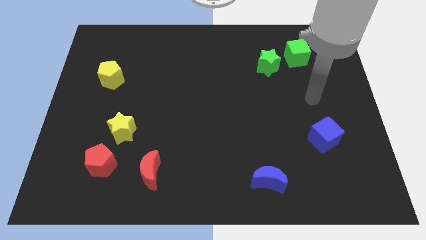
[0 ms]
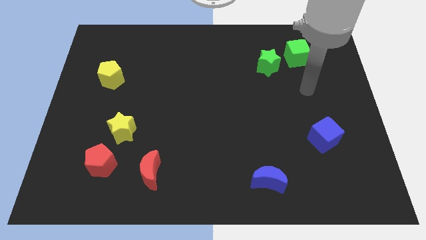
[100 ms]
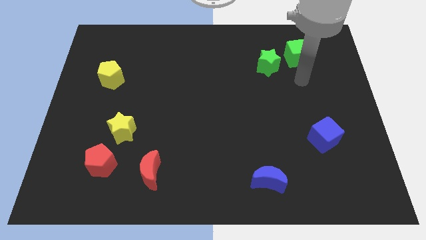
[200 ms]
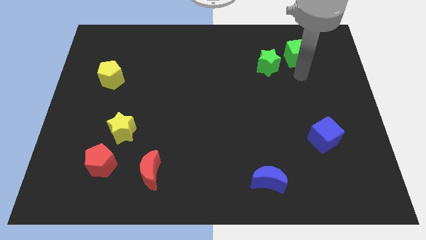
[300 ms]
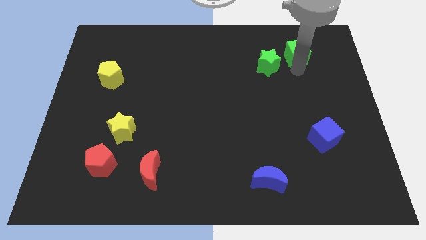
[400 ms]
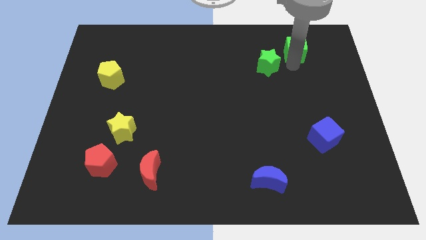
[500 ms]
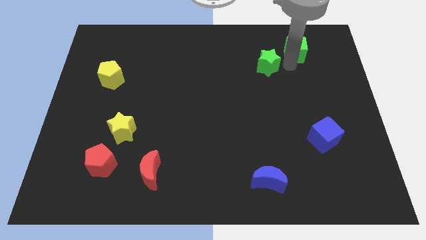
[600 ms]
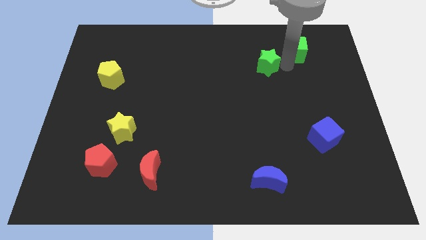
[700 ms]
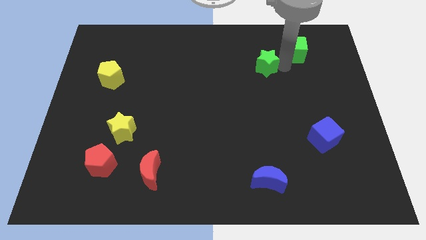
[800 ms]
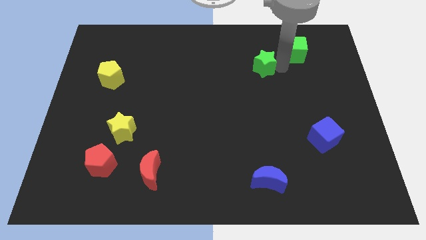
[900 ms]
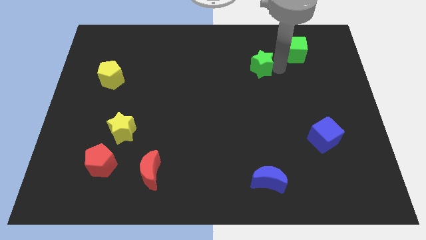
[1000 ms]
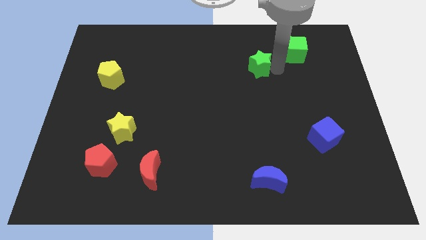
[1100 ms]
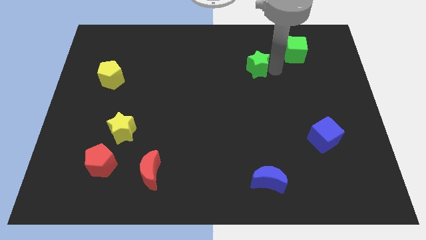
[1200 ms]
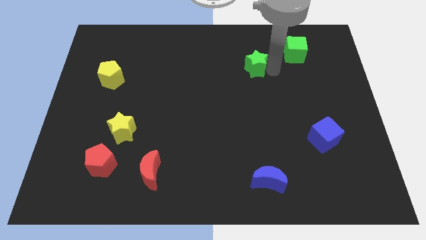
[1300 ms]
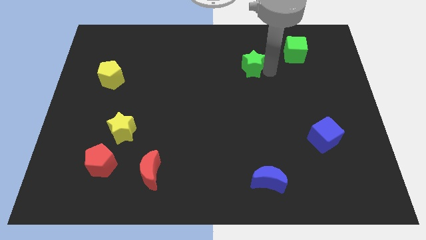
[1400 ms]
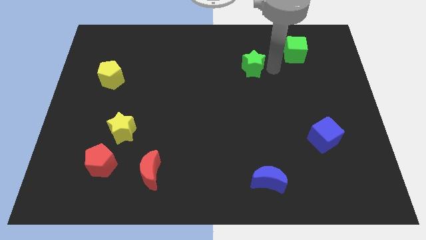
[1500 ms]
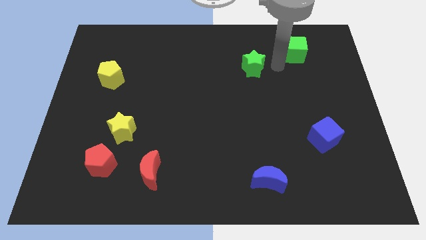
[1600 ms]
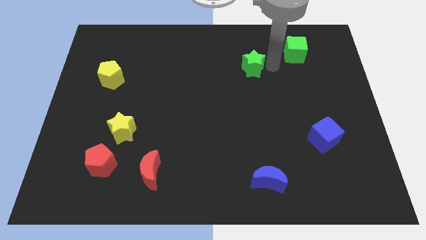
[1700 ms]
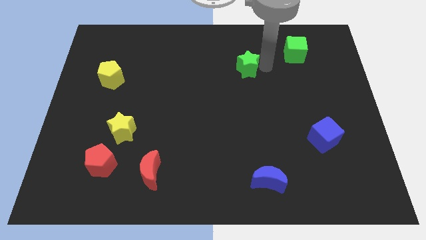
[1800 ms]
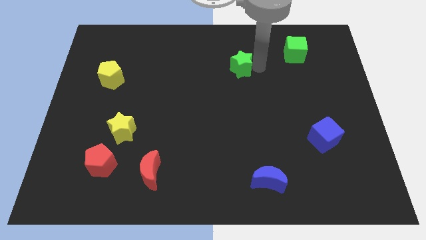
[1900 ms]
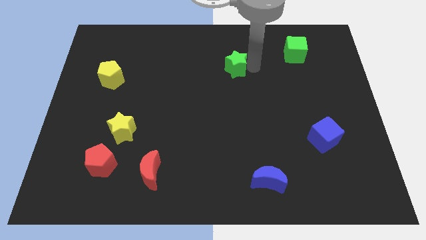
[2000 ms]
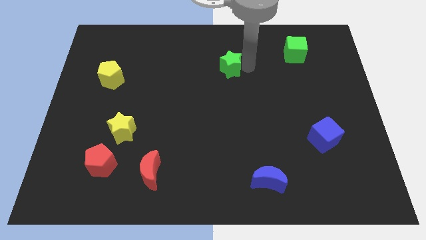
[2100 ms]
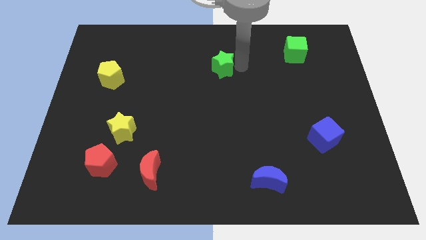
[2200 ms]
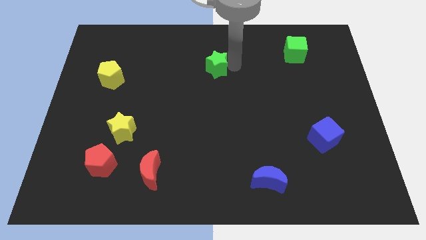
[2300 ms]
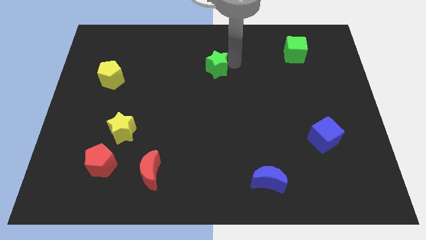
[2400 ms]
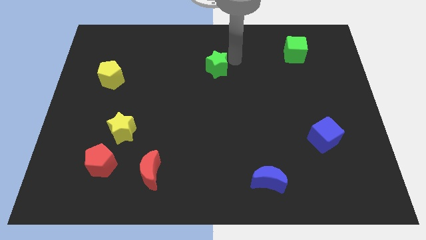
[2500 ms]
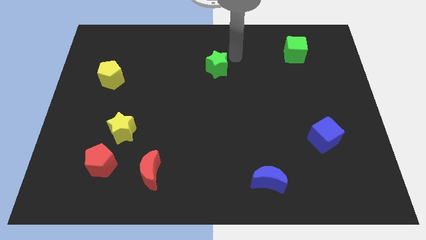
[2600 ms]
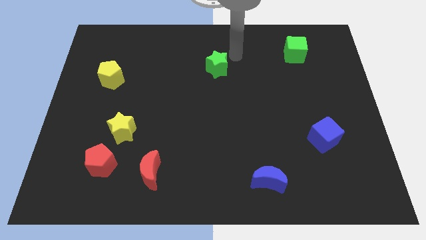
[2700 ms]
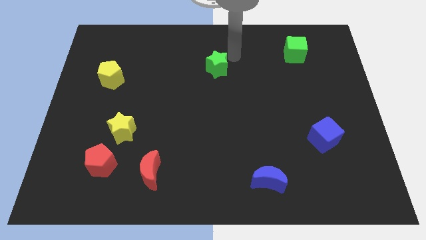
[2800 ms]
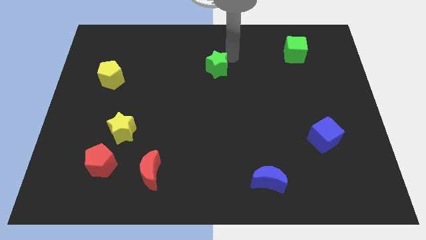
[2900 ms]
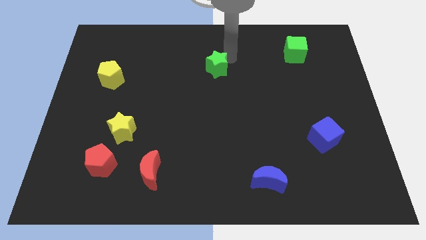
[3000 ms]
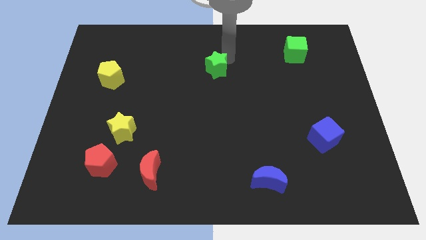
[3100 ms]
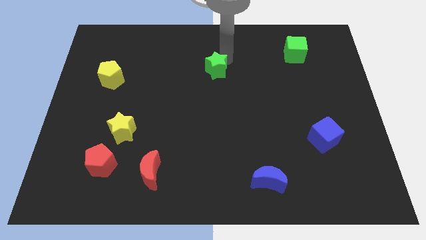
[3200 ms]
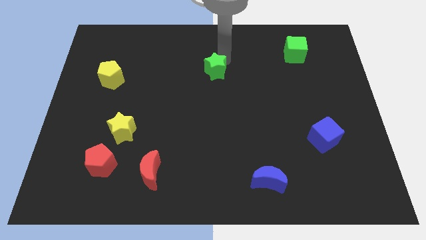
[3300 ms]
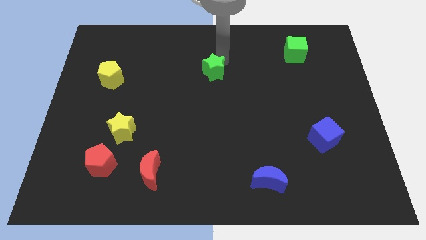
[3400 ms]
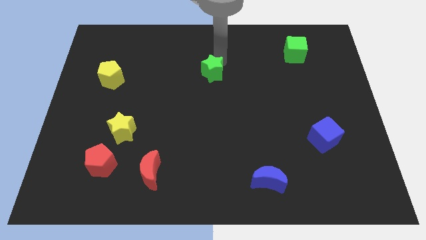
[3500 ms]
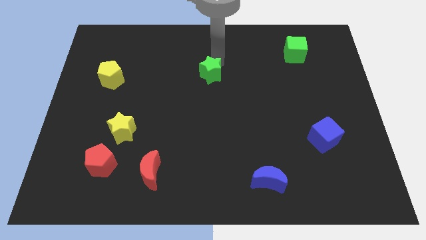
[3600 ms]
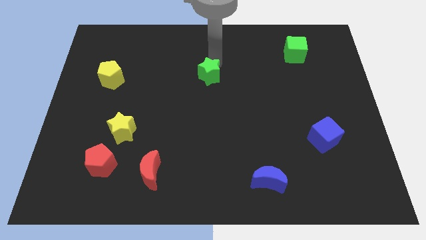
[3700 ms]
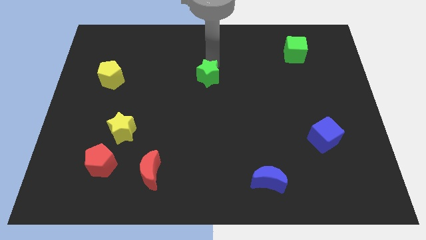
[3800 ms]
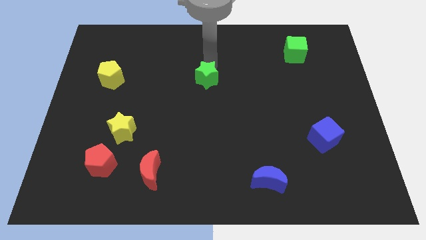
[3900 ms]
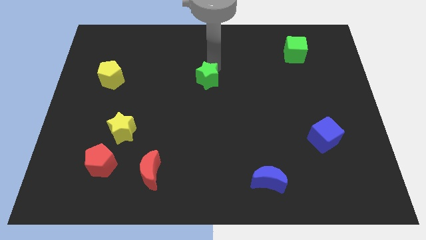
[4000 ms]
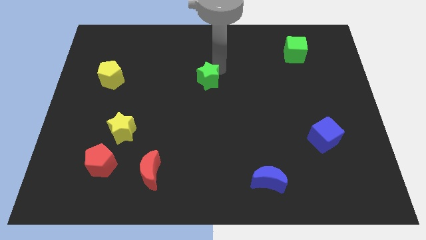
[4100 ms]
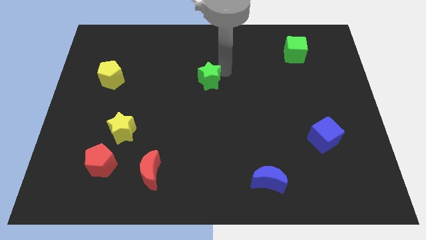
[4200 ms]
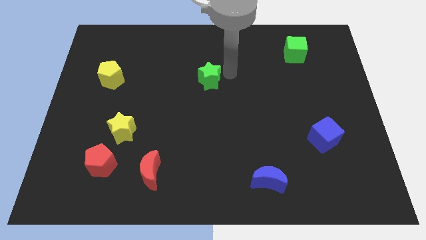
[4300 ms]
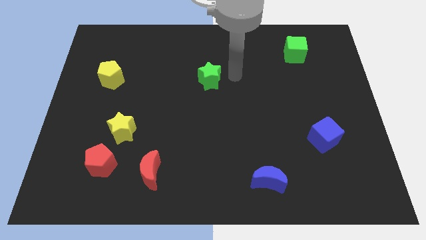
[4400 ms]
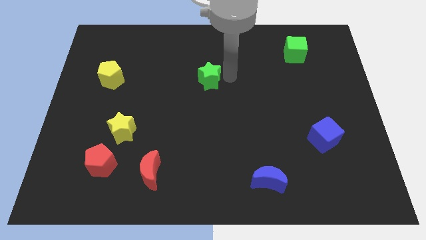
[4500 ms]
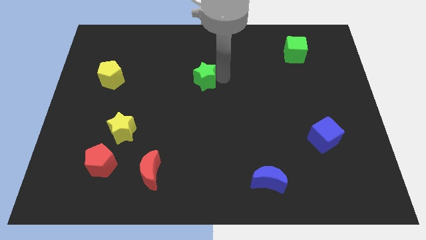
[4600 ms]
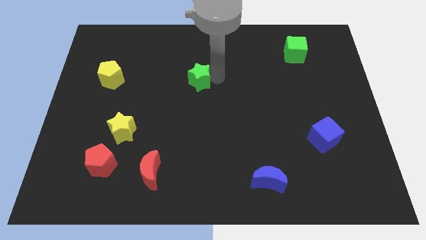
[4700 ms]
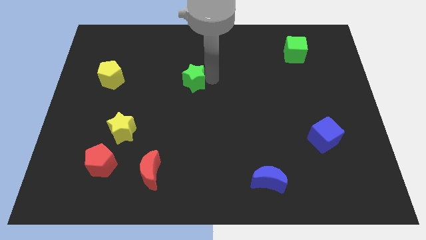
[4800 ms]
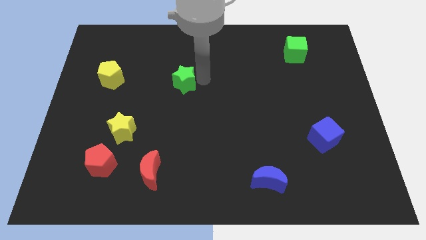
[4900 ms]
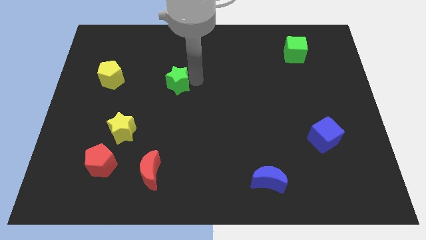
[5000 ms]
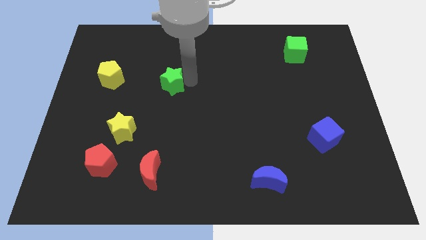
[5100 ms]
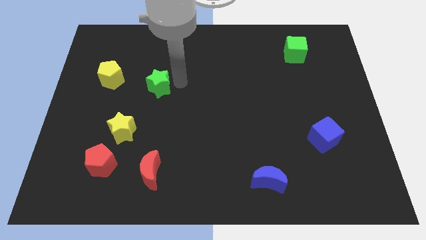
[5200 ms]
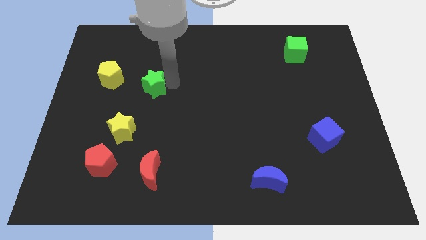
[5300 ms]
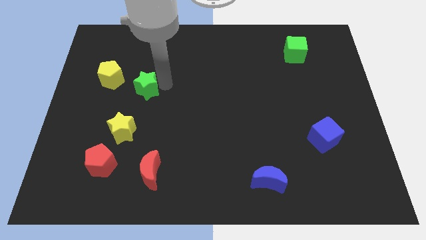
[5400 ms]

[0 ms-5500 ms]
put the green star diagonally down and to the right of the yellow pentagon

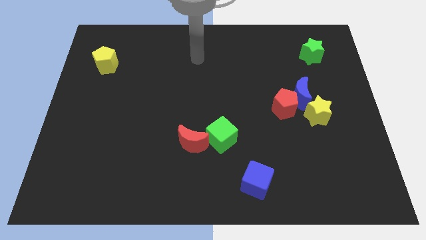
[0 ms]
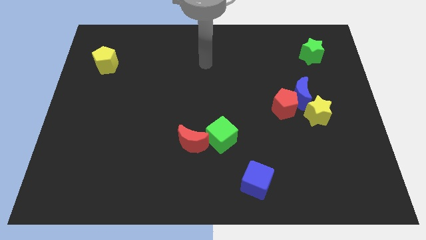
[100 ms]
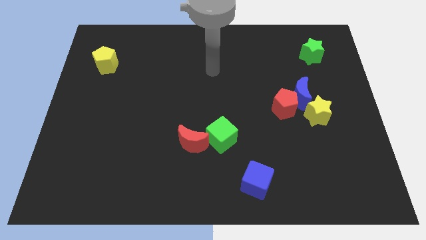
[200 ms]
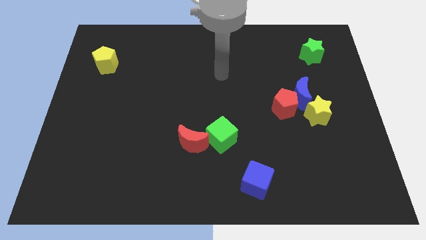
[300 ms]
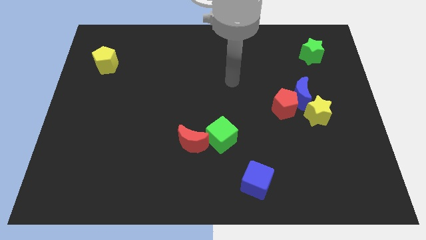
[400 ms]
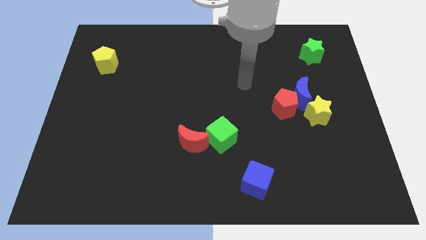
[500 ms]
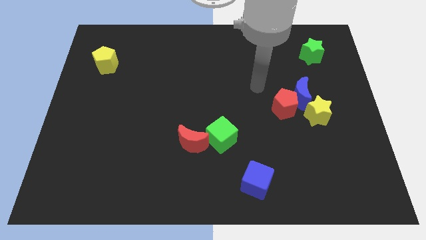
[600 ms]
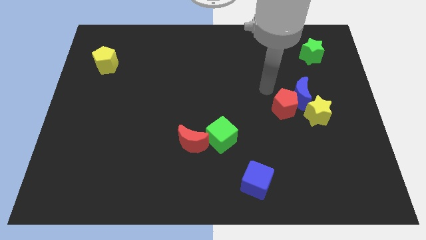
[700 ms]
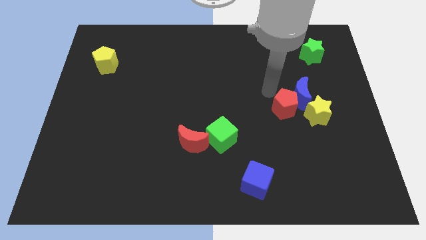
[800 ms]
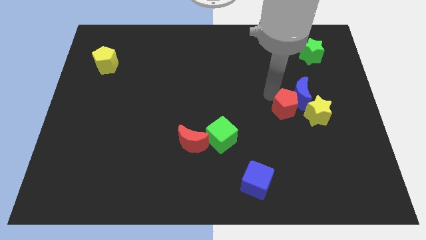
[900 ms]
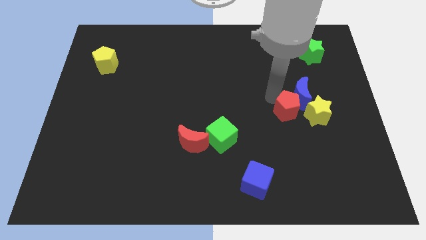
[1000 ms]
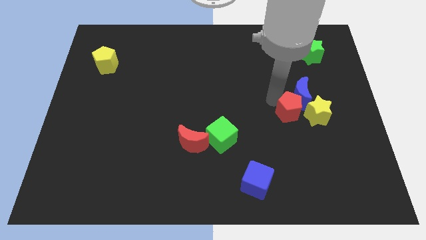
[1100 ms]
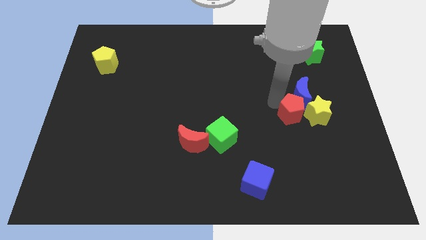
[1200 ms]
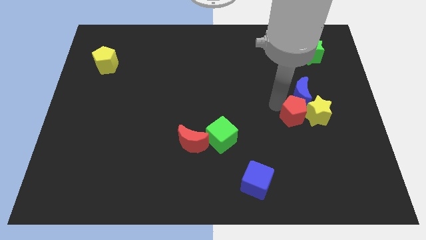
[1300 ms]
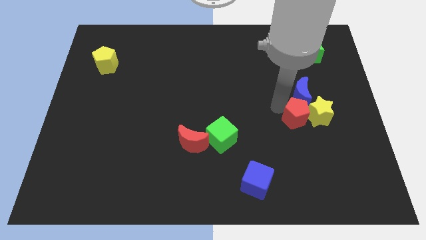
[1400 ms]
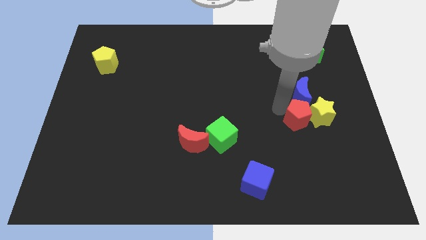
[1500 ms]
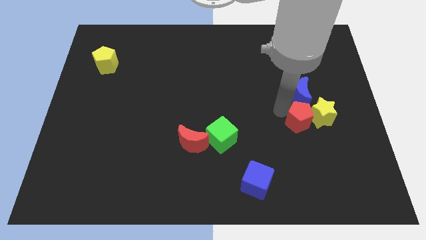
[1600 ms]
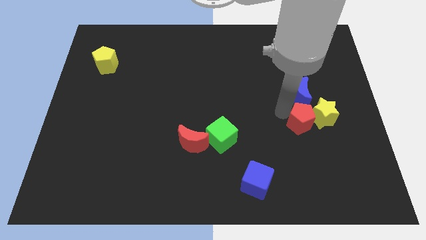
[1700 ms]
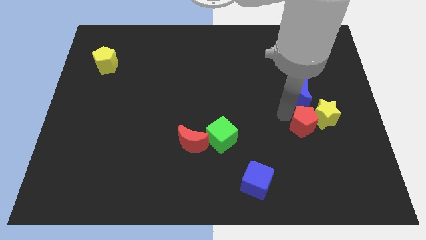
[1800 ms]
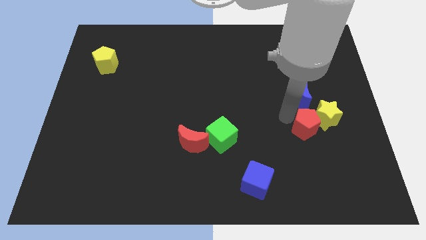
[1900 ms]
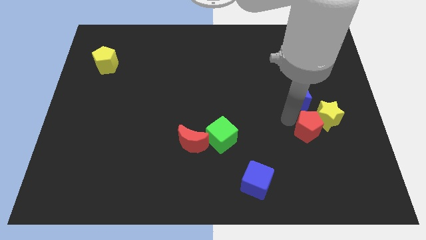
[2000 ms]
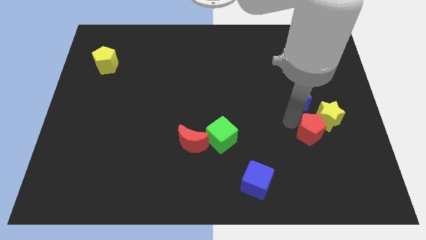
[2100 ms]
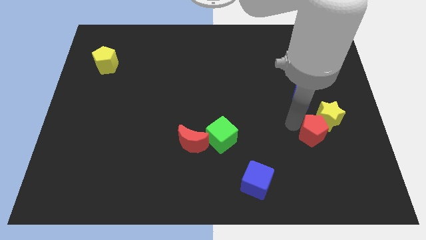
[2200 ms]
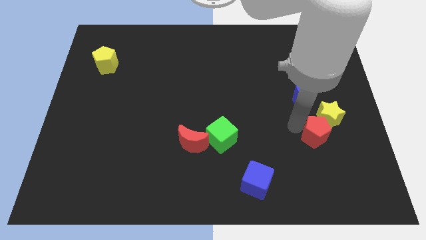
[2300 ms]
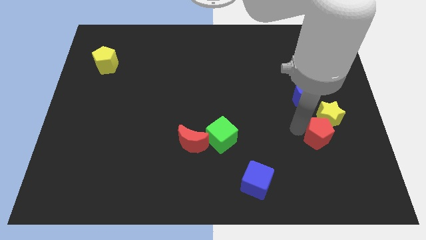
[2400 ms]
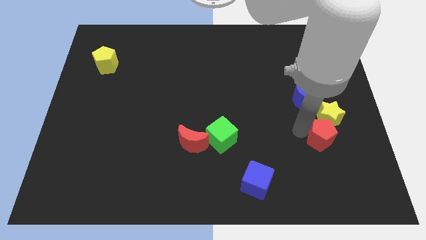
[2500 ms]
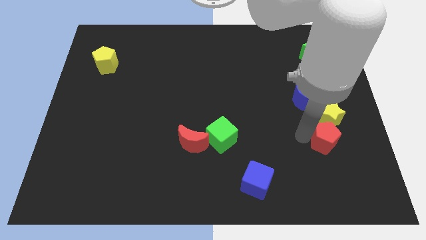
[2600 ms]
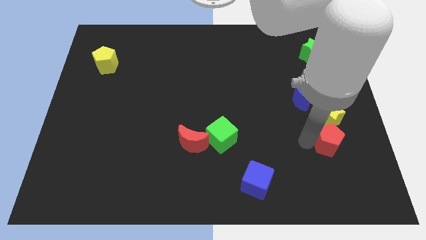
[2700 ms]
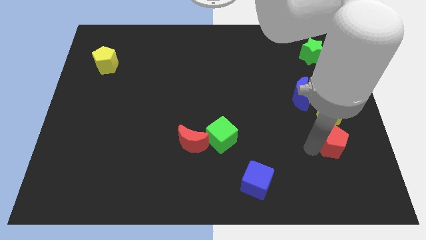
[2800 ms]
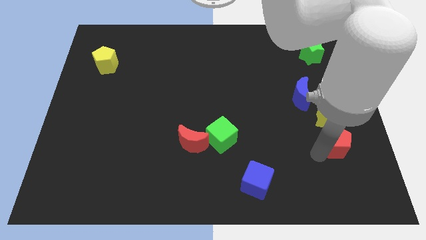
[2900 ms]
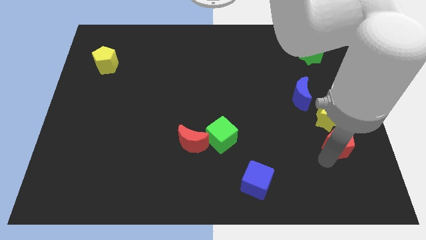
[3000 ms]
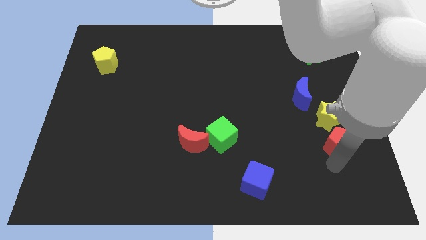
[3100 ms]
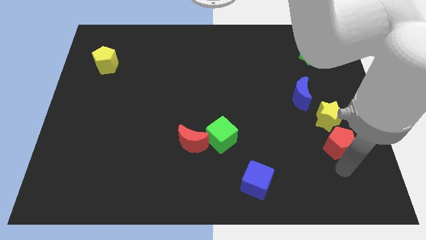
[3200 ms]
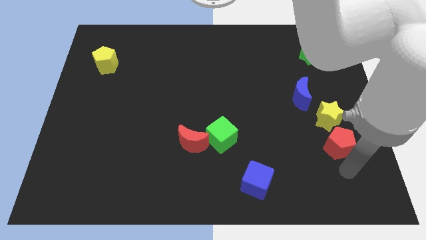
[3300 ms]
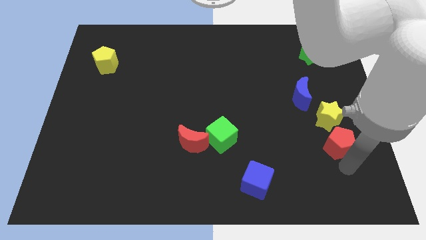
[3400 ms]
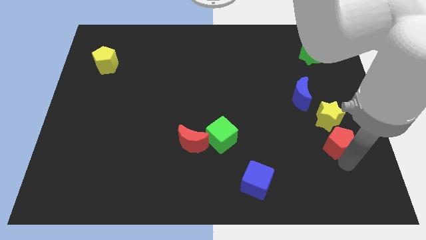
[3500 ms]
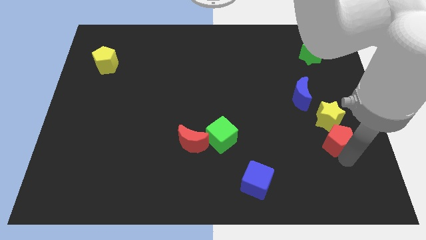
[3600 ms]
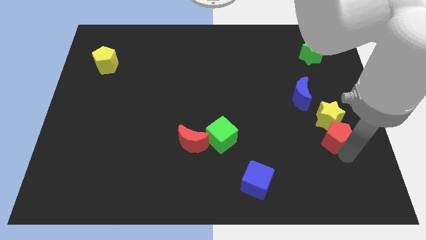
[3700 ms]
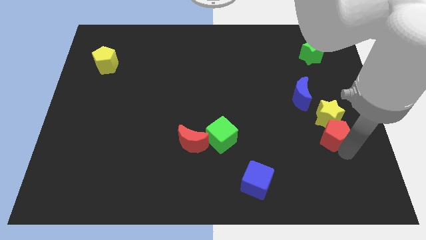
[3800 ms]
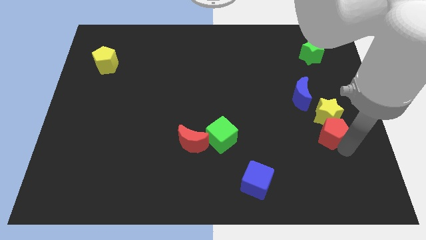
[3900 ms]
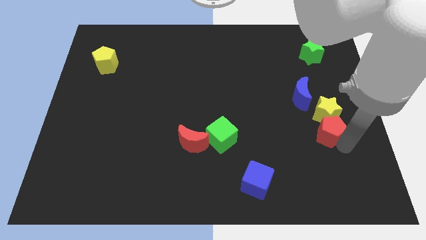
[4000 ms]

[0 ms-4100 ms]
slide the red pentagon diagonally down and to the right of the blue moon
